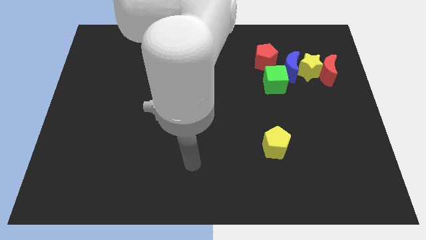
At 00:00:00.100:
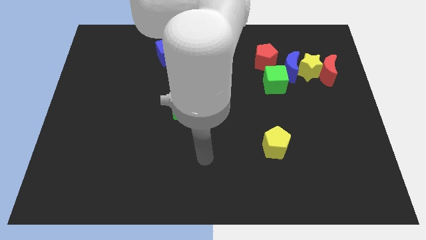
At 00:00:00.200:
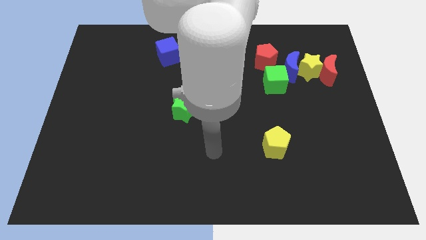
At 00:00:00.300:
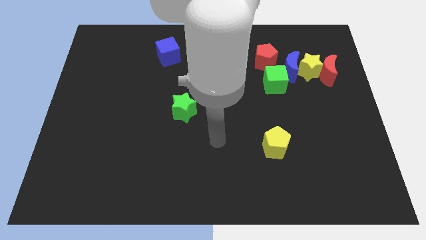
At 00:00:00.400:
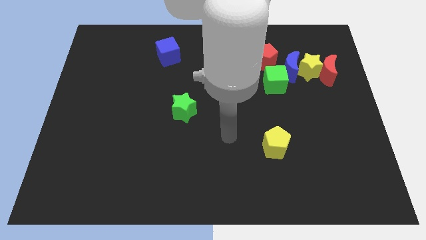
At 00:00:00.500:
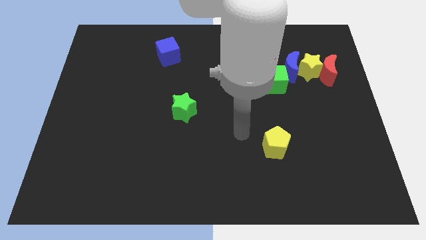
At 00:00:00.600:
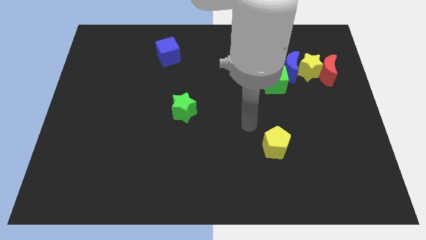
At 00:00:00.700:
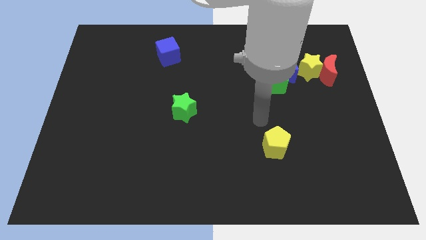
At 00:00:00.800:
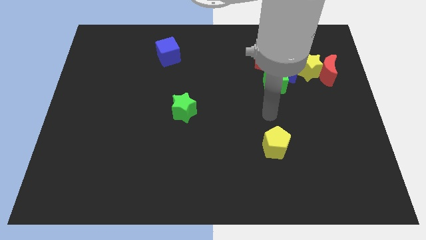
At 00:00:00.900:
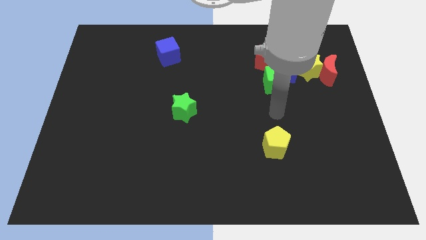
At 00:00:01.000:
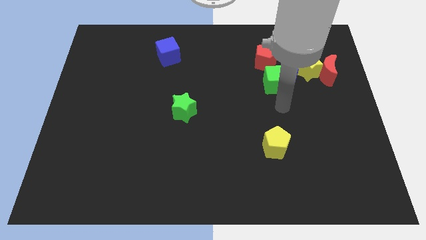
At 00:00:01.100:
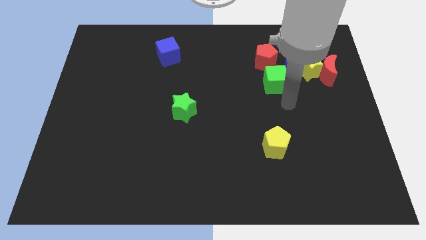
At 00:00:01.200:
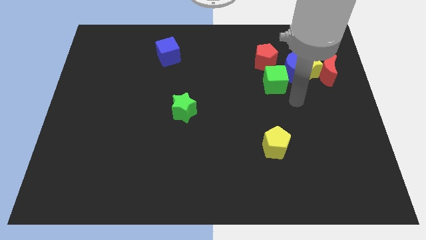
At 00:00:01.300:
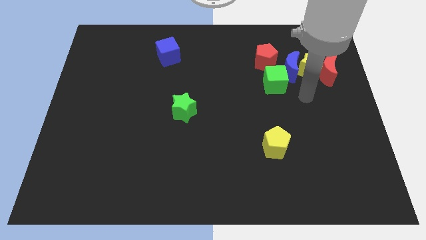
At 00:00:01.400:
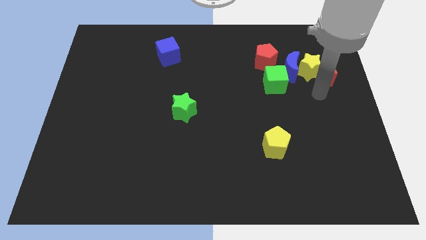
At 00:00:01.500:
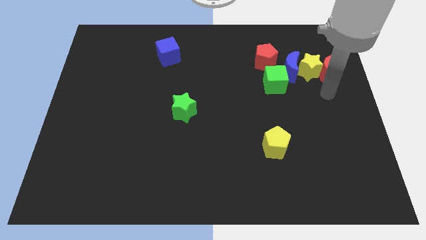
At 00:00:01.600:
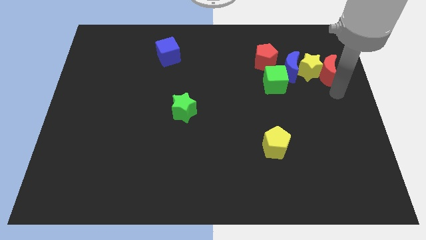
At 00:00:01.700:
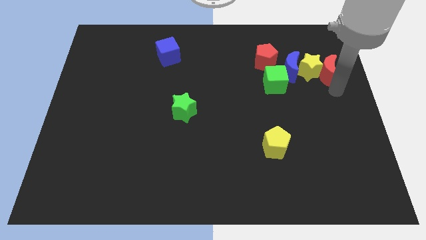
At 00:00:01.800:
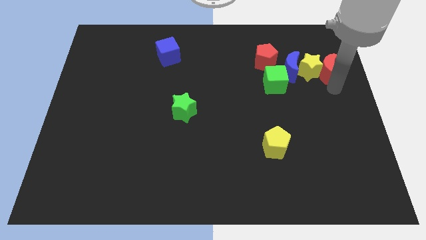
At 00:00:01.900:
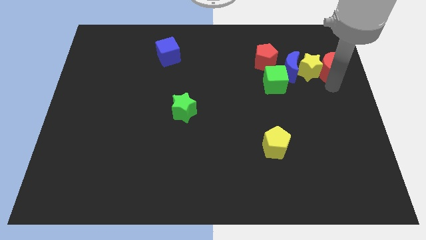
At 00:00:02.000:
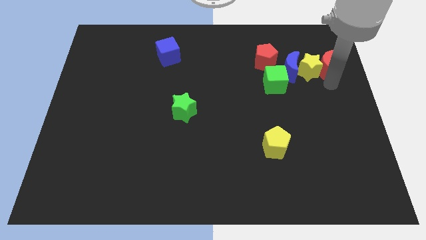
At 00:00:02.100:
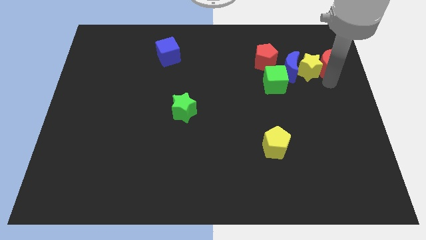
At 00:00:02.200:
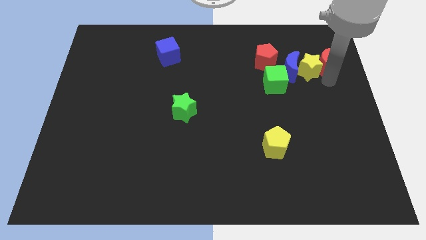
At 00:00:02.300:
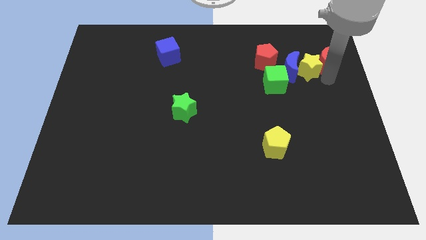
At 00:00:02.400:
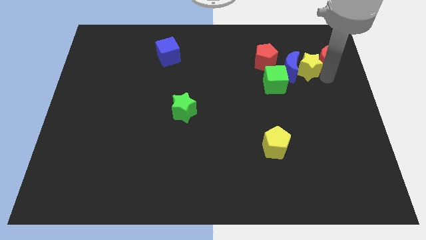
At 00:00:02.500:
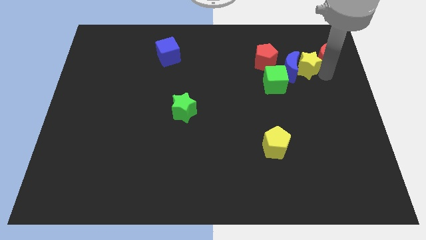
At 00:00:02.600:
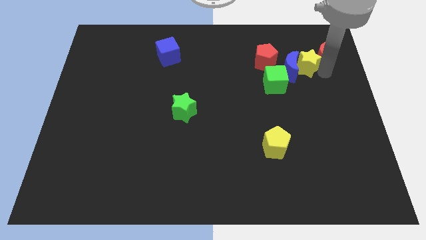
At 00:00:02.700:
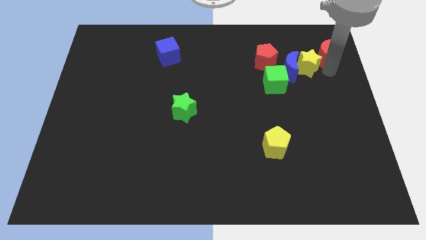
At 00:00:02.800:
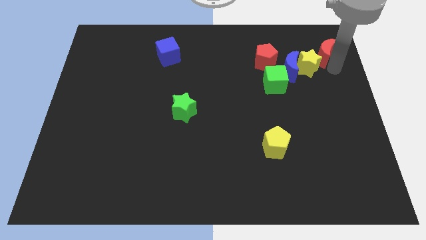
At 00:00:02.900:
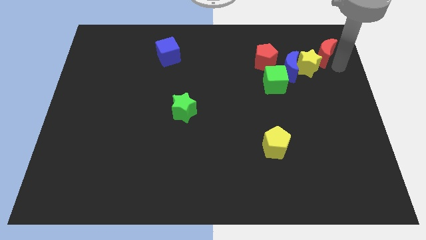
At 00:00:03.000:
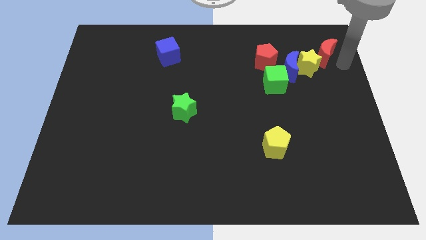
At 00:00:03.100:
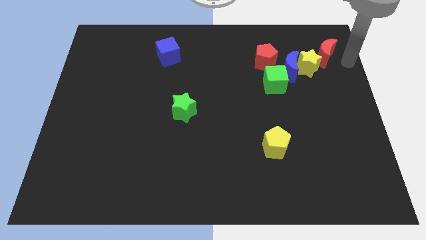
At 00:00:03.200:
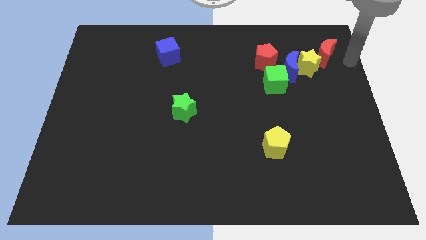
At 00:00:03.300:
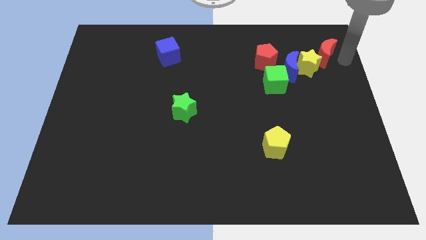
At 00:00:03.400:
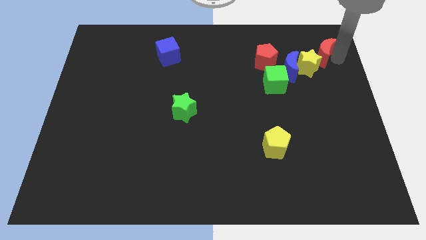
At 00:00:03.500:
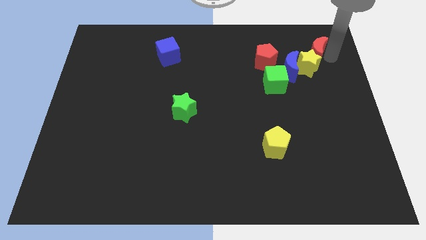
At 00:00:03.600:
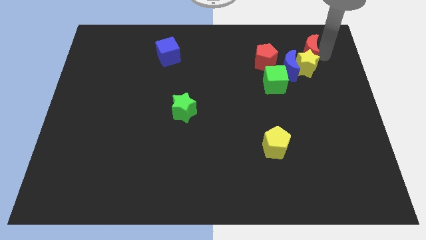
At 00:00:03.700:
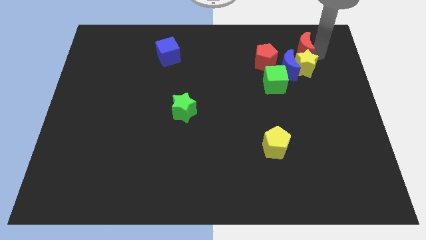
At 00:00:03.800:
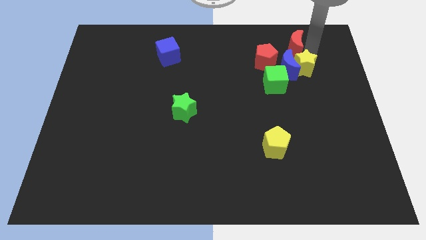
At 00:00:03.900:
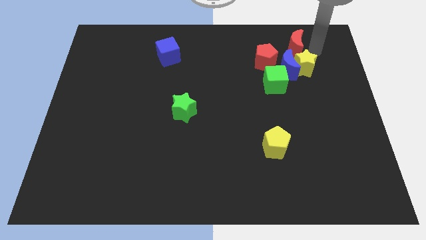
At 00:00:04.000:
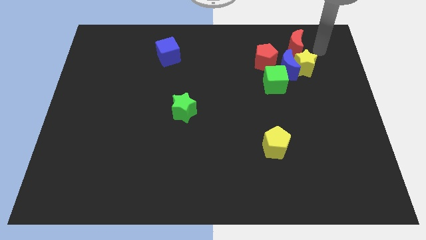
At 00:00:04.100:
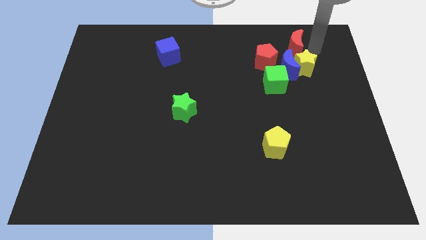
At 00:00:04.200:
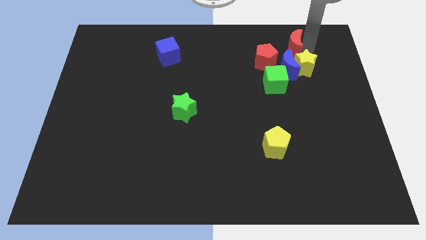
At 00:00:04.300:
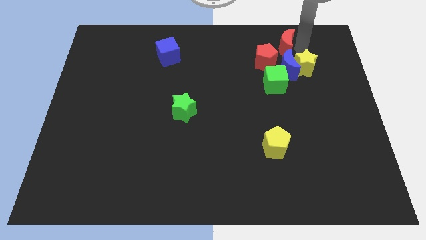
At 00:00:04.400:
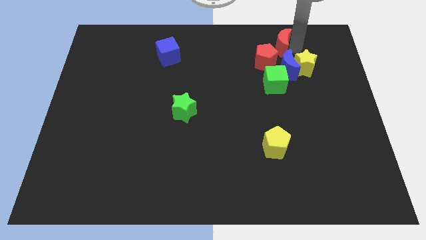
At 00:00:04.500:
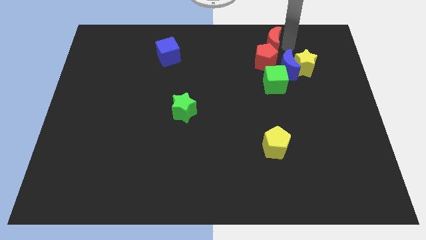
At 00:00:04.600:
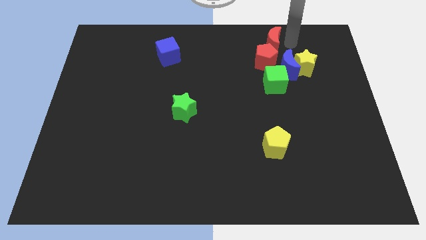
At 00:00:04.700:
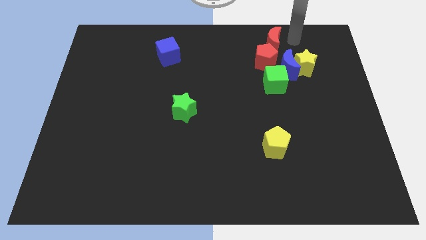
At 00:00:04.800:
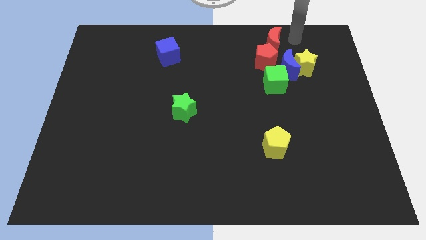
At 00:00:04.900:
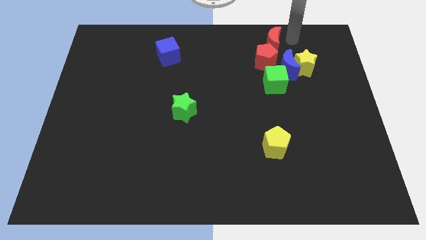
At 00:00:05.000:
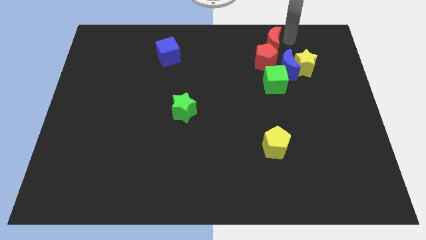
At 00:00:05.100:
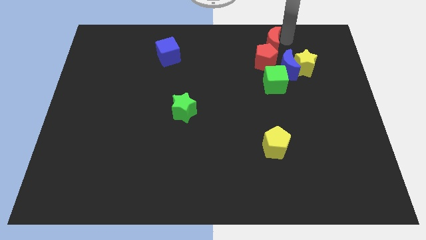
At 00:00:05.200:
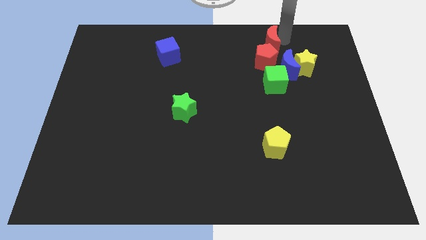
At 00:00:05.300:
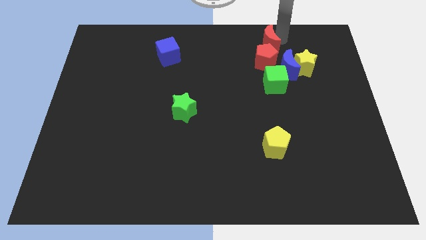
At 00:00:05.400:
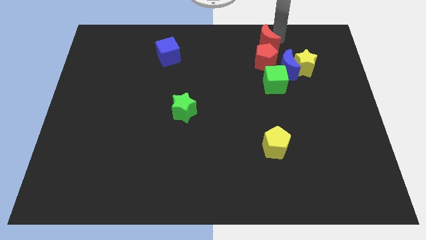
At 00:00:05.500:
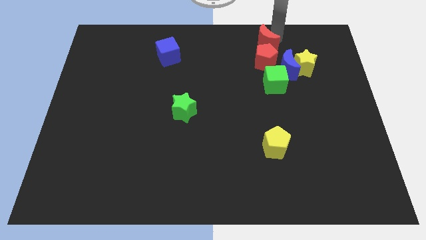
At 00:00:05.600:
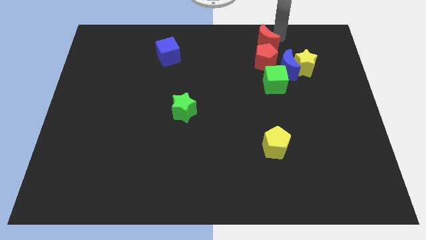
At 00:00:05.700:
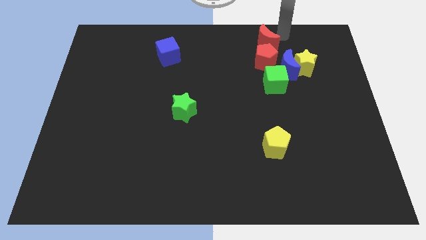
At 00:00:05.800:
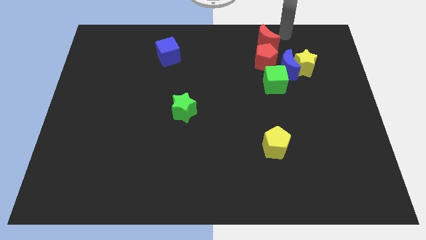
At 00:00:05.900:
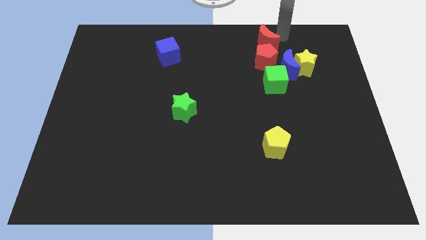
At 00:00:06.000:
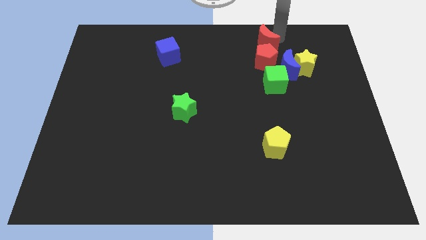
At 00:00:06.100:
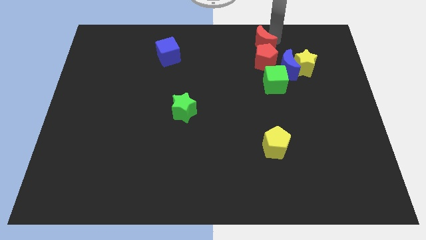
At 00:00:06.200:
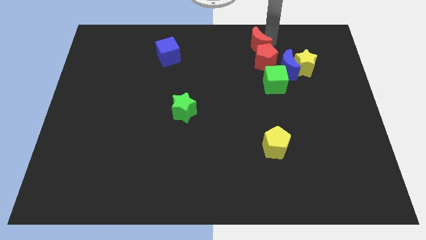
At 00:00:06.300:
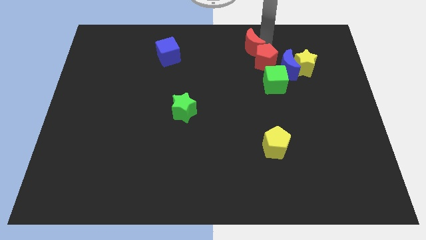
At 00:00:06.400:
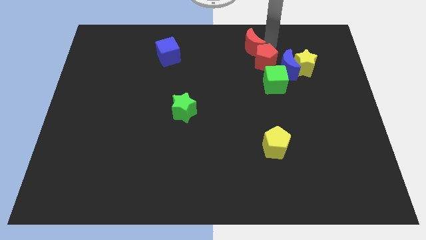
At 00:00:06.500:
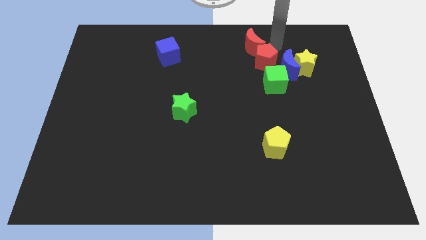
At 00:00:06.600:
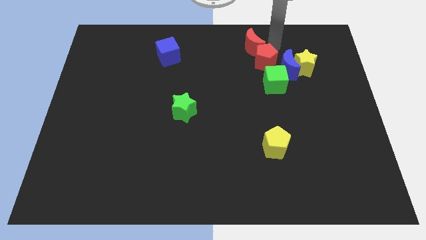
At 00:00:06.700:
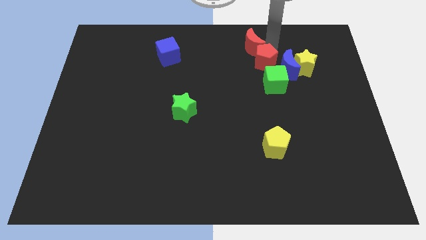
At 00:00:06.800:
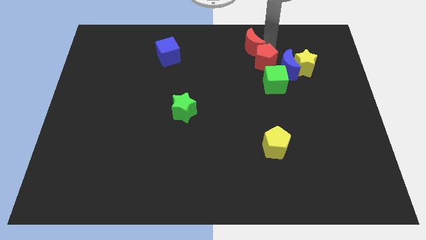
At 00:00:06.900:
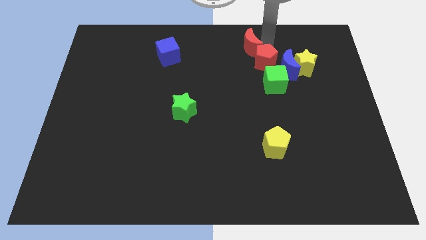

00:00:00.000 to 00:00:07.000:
slide the red moon to the towards your base

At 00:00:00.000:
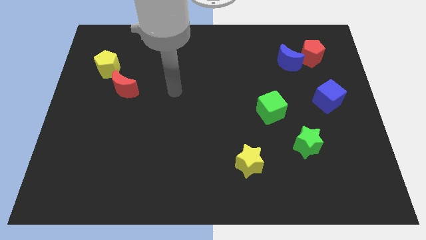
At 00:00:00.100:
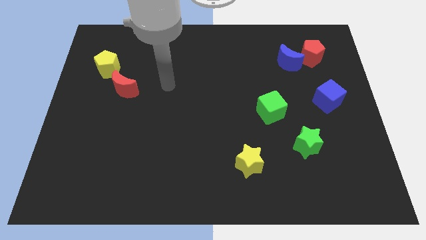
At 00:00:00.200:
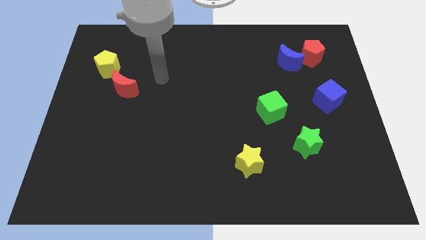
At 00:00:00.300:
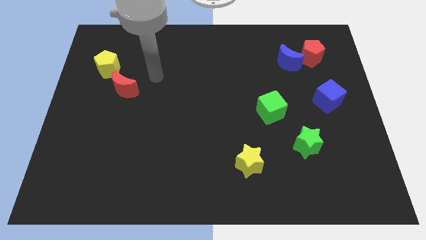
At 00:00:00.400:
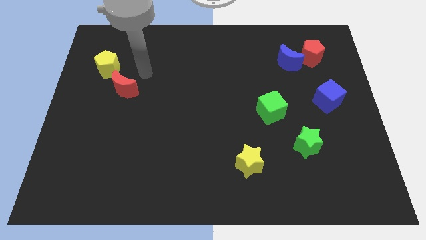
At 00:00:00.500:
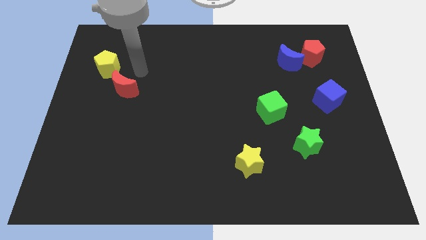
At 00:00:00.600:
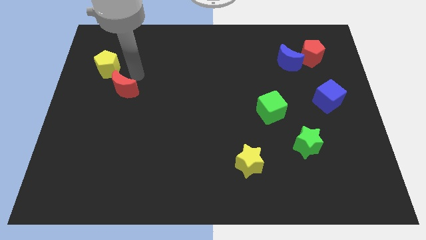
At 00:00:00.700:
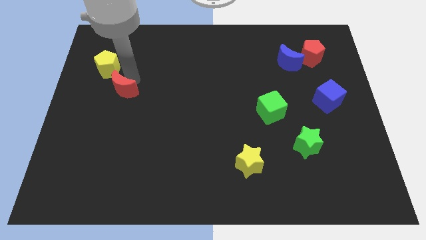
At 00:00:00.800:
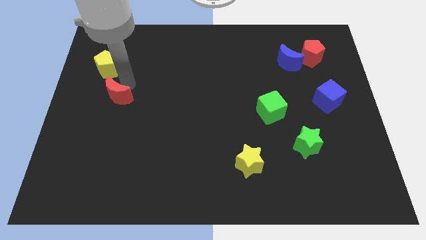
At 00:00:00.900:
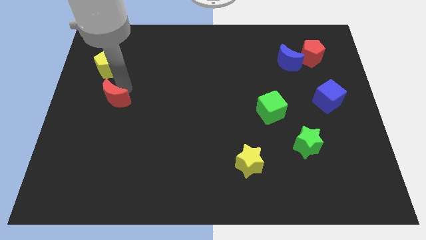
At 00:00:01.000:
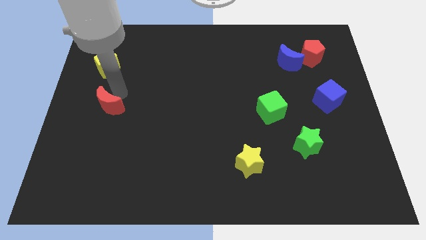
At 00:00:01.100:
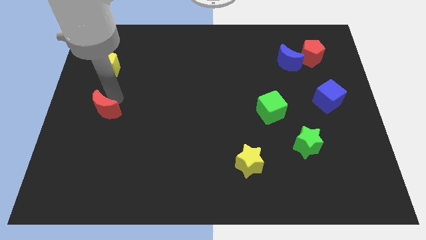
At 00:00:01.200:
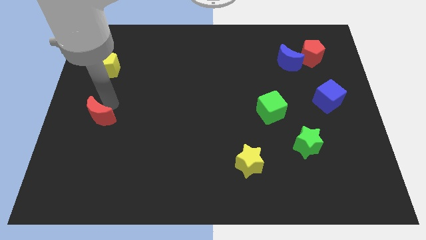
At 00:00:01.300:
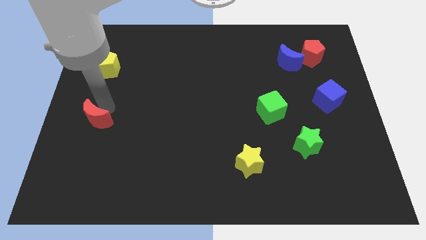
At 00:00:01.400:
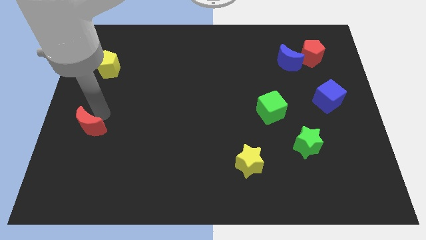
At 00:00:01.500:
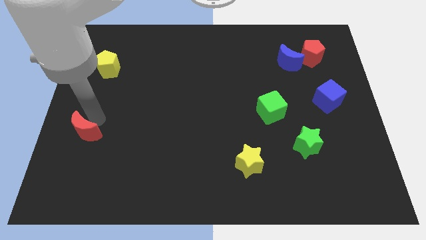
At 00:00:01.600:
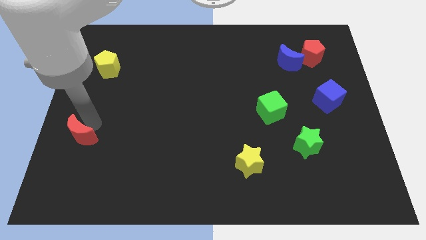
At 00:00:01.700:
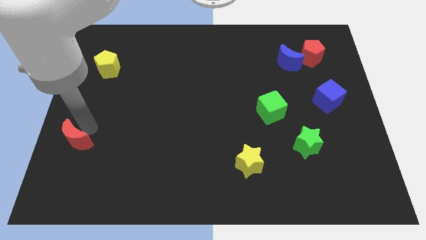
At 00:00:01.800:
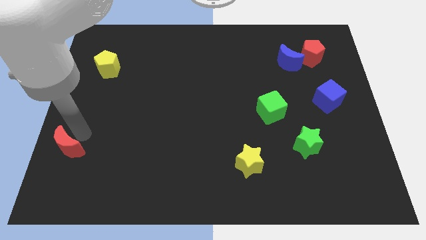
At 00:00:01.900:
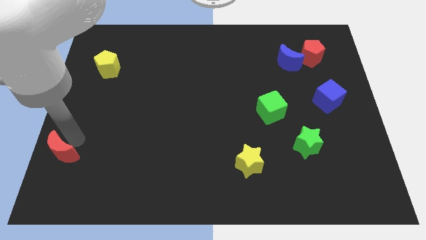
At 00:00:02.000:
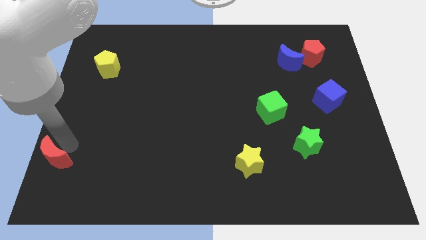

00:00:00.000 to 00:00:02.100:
push the red moon to the bottom left corner
